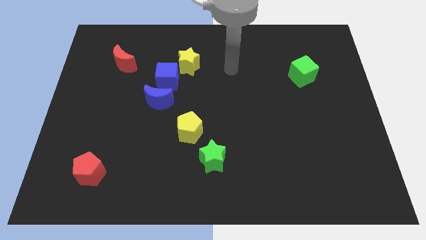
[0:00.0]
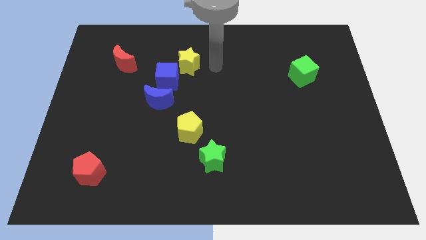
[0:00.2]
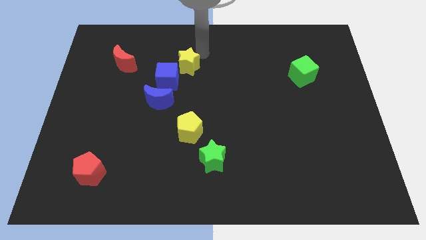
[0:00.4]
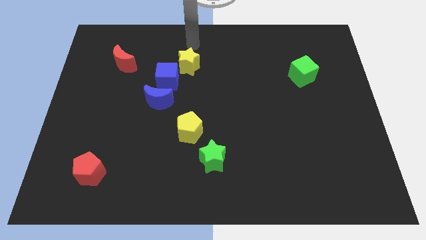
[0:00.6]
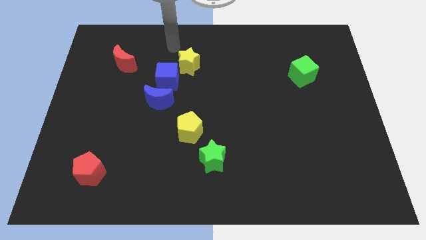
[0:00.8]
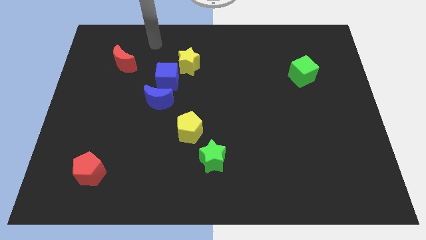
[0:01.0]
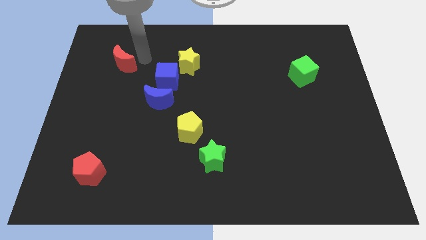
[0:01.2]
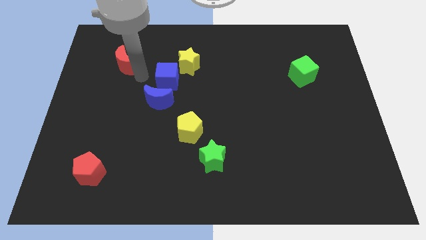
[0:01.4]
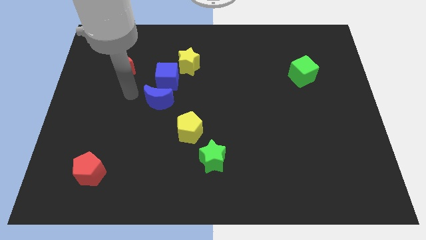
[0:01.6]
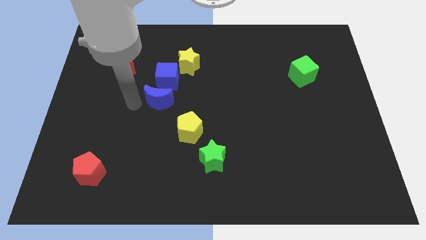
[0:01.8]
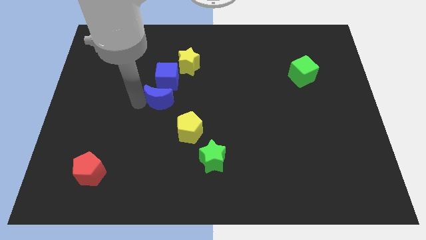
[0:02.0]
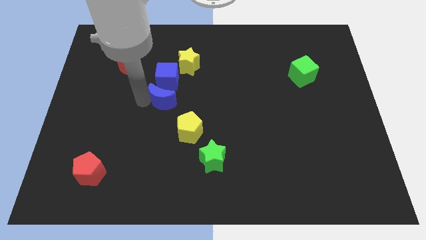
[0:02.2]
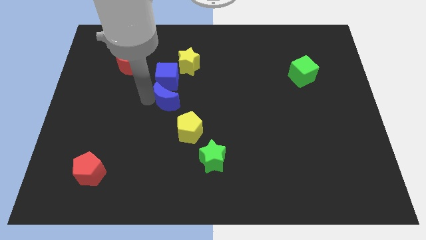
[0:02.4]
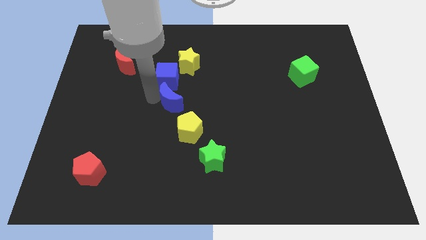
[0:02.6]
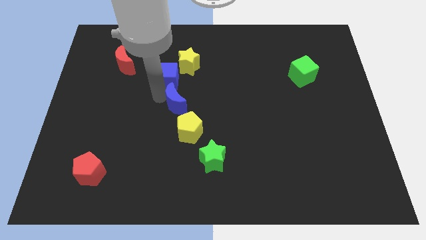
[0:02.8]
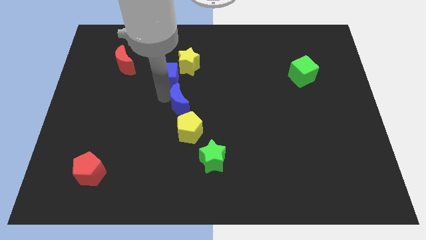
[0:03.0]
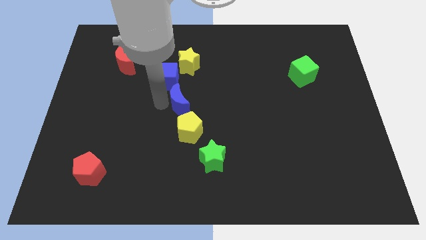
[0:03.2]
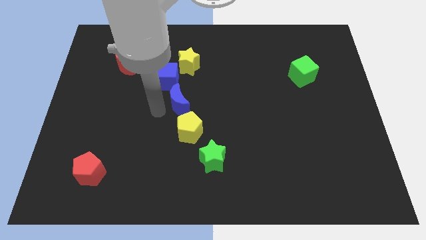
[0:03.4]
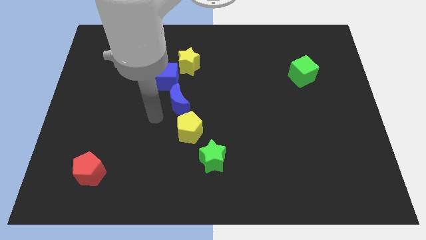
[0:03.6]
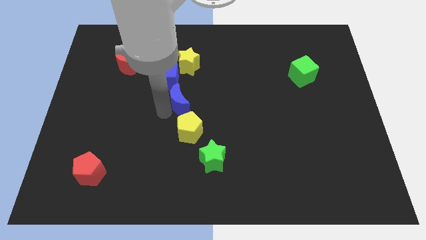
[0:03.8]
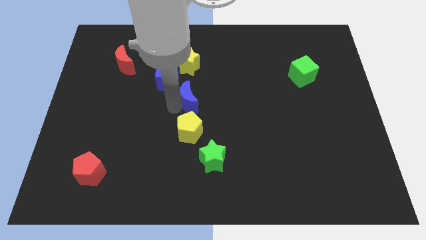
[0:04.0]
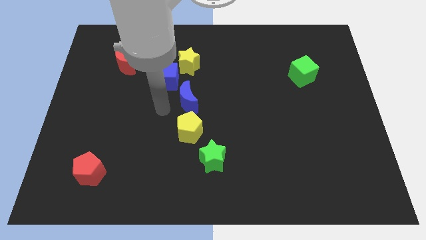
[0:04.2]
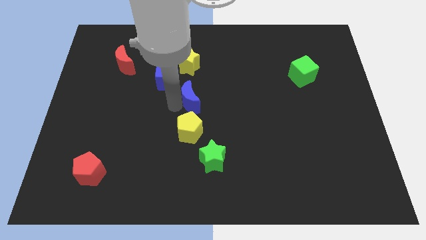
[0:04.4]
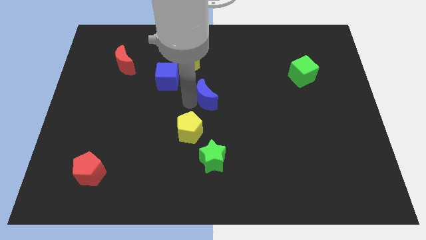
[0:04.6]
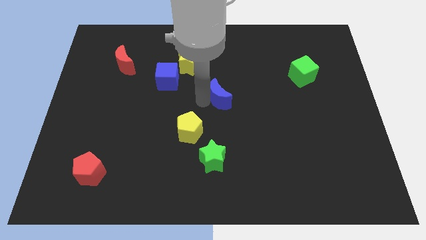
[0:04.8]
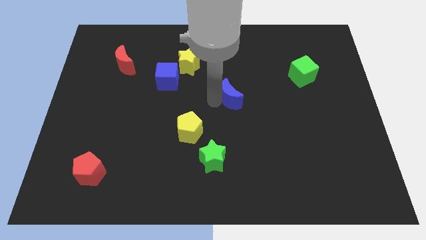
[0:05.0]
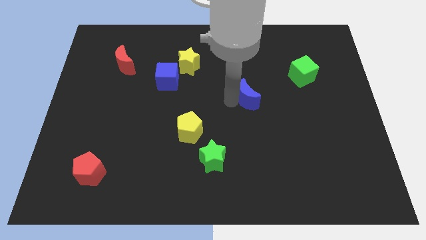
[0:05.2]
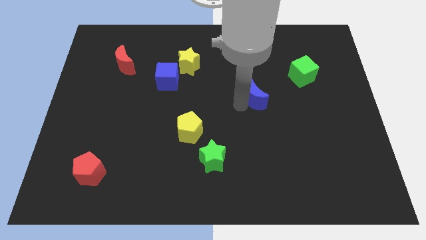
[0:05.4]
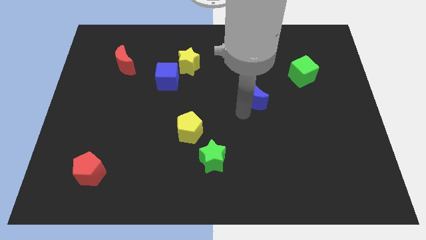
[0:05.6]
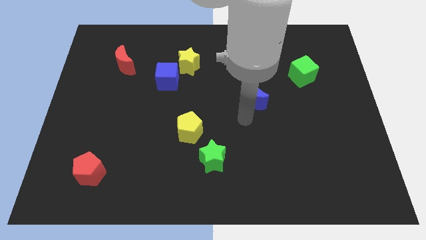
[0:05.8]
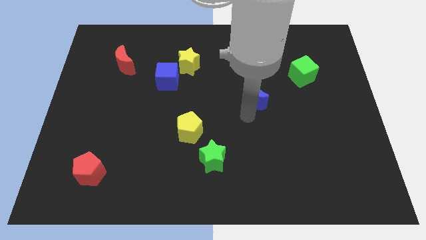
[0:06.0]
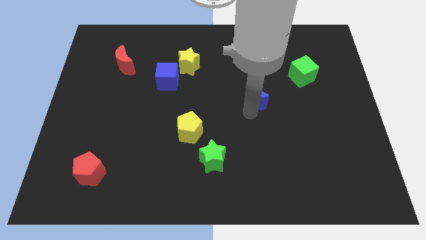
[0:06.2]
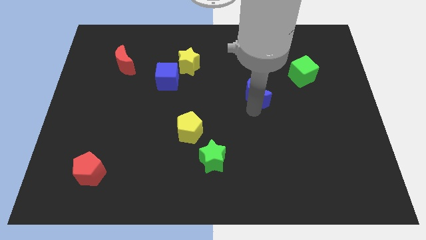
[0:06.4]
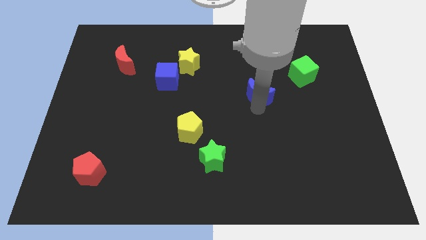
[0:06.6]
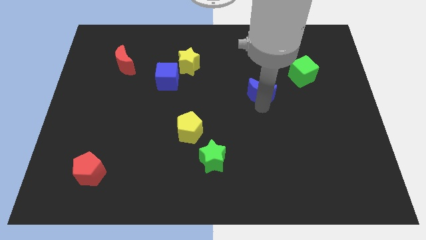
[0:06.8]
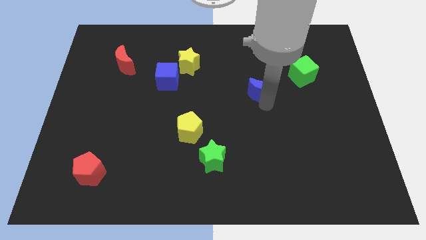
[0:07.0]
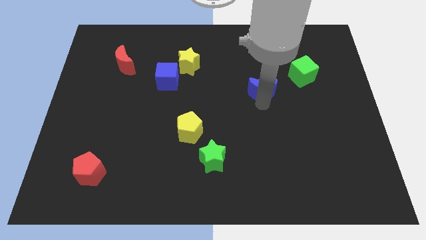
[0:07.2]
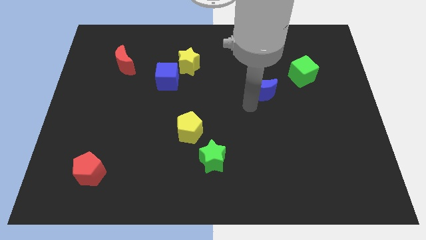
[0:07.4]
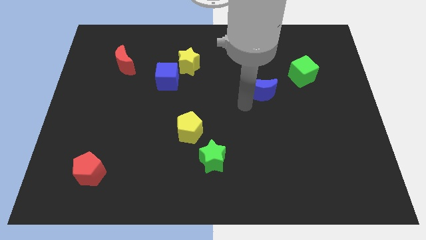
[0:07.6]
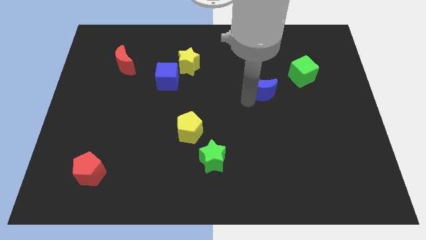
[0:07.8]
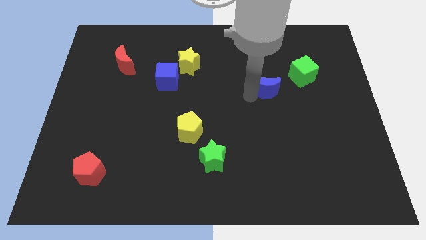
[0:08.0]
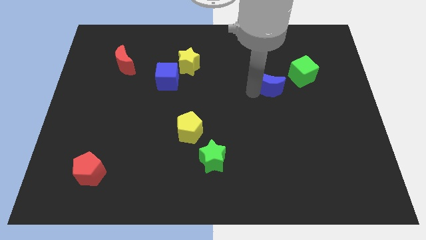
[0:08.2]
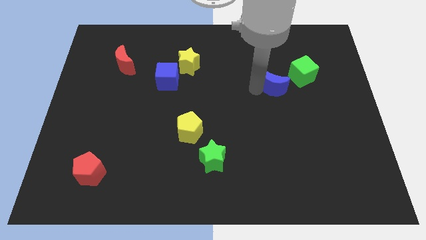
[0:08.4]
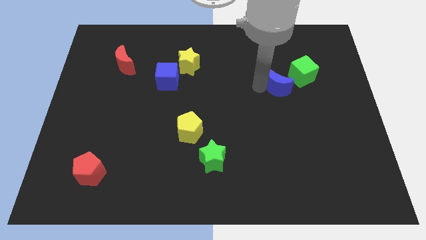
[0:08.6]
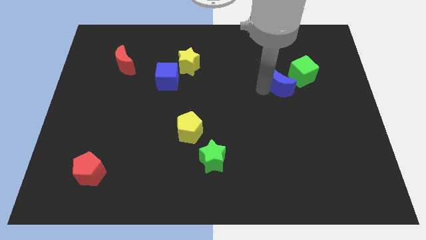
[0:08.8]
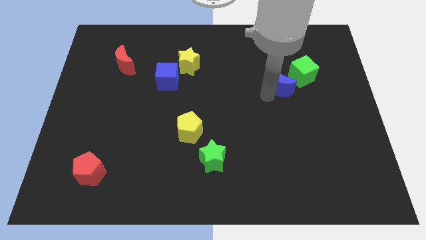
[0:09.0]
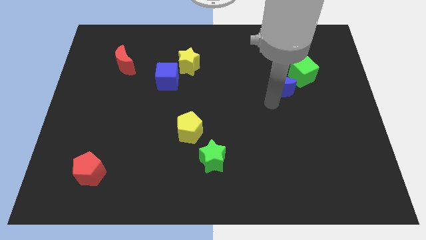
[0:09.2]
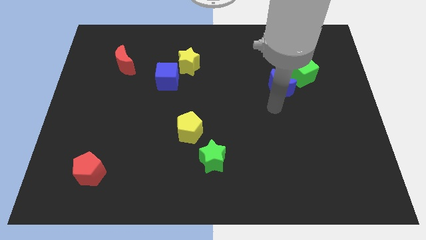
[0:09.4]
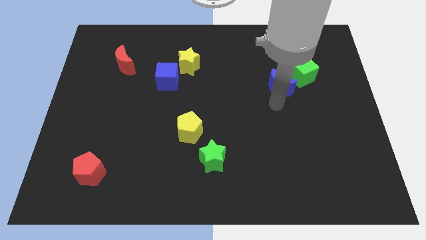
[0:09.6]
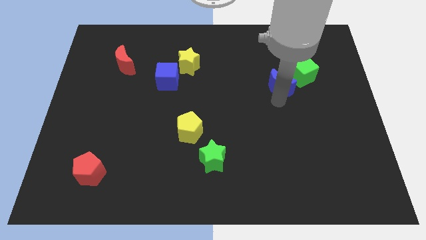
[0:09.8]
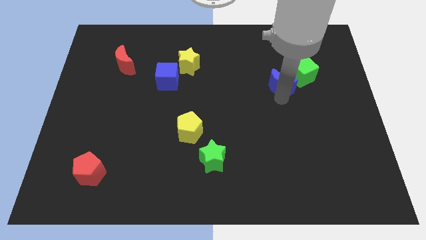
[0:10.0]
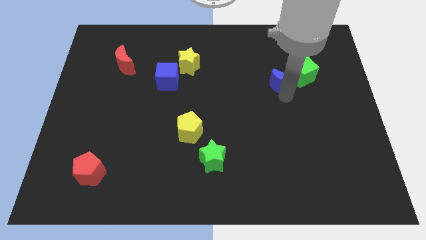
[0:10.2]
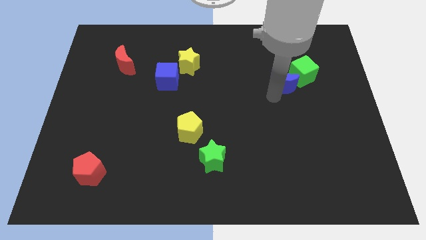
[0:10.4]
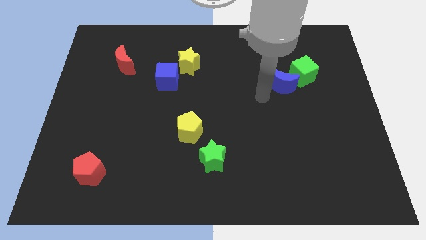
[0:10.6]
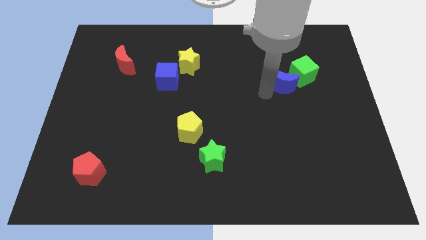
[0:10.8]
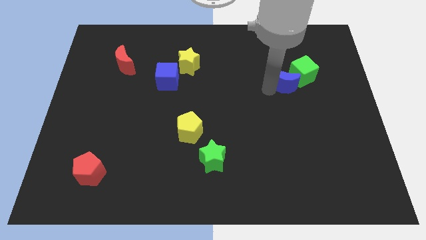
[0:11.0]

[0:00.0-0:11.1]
slide the blue moon close to the green cube

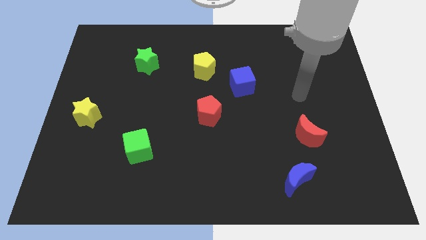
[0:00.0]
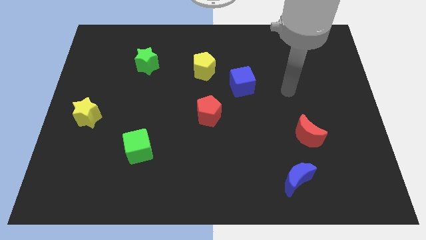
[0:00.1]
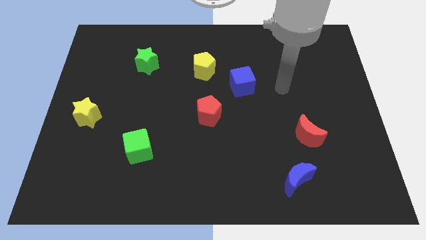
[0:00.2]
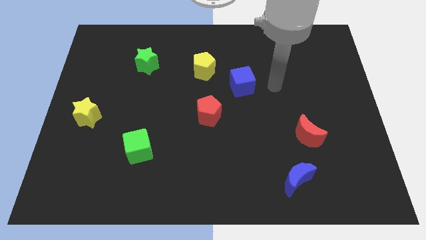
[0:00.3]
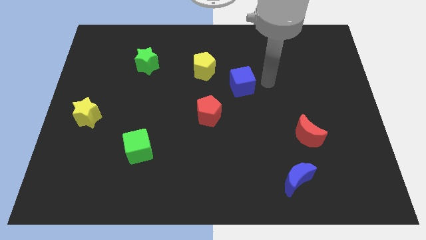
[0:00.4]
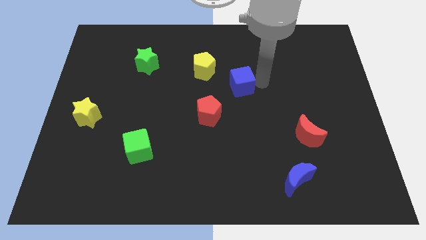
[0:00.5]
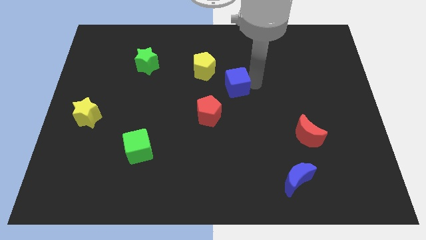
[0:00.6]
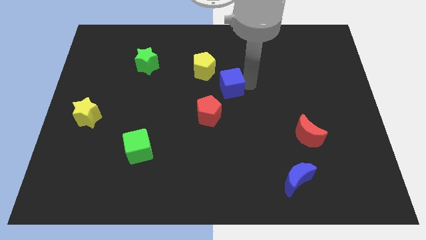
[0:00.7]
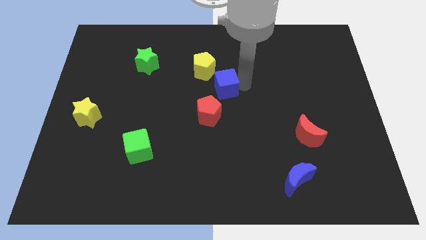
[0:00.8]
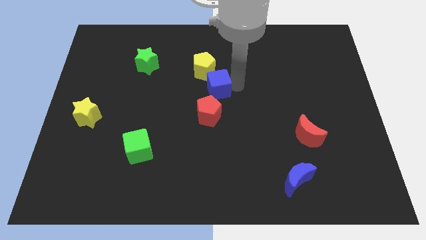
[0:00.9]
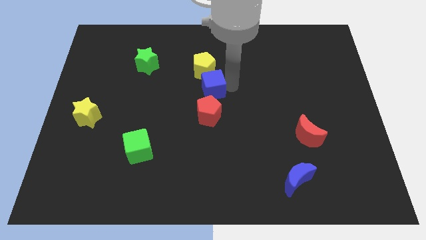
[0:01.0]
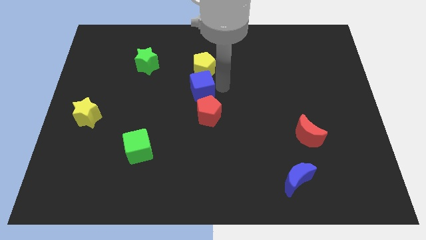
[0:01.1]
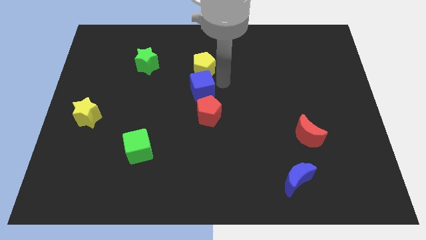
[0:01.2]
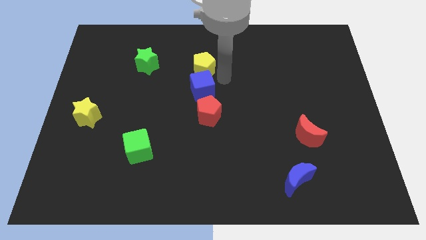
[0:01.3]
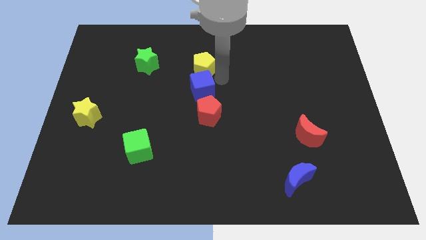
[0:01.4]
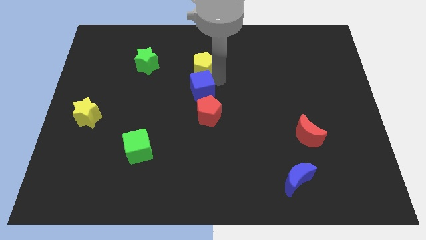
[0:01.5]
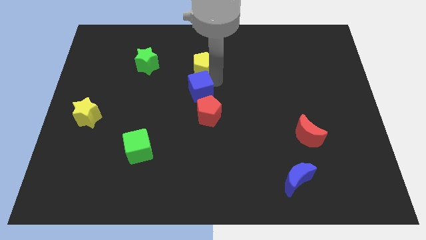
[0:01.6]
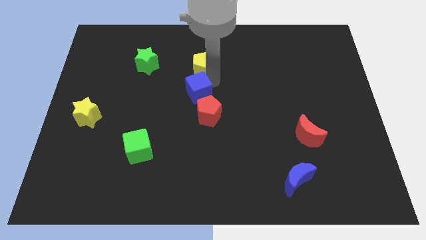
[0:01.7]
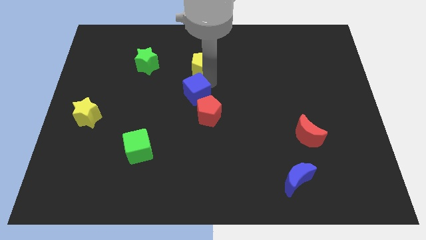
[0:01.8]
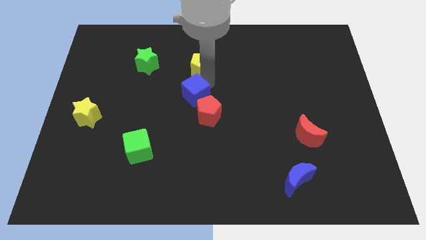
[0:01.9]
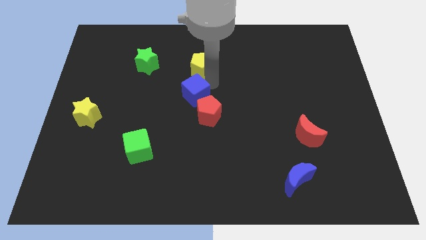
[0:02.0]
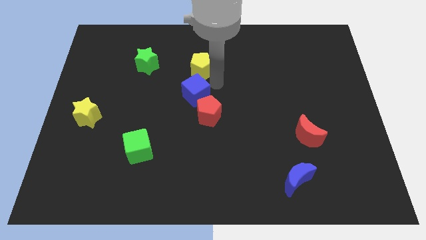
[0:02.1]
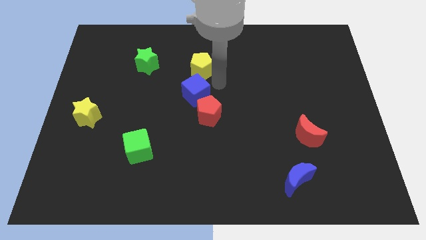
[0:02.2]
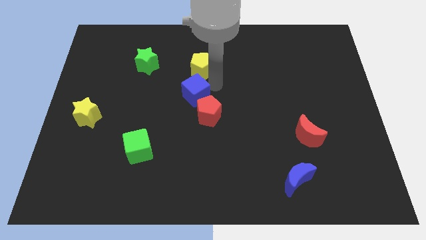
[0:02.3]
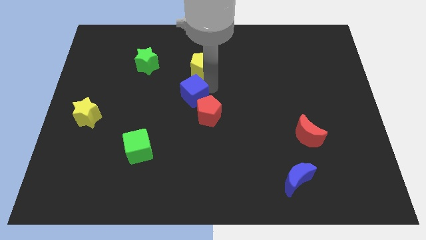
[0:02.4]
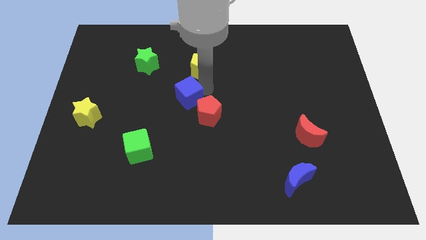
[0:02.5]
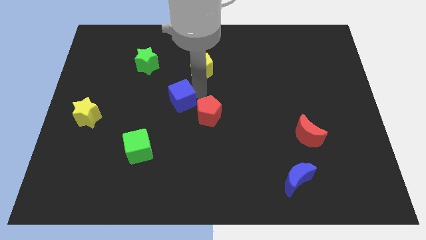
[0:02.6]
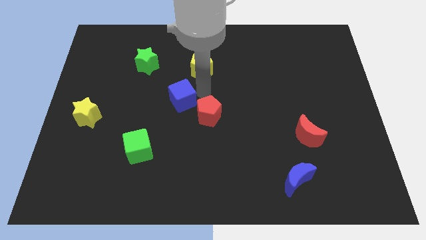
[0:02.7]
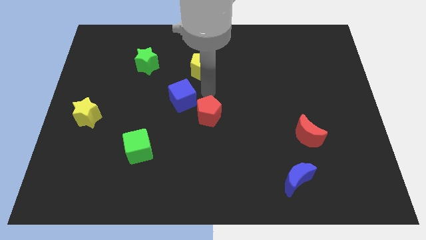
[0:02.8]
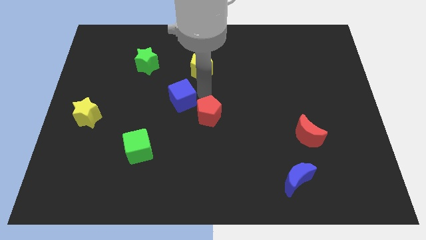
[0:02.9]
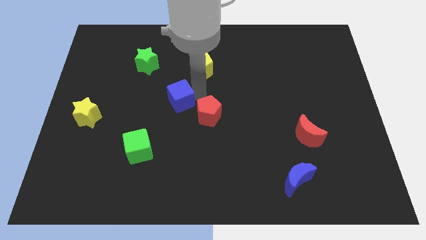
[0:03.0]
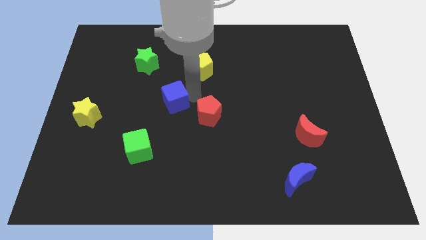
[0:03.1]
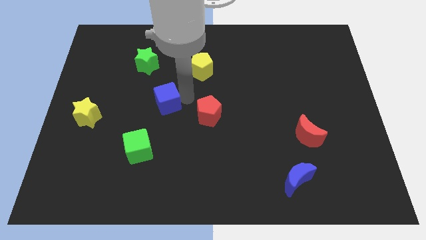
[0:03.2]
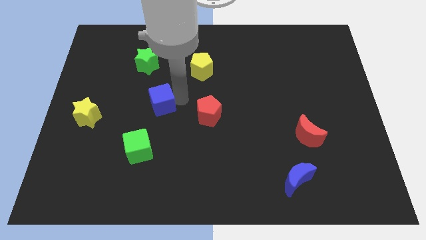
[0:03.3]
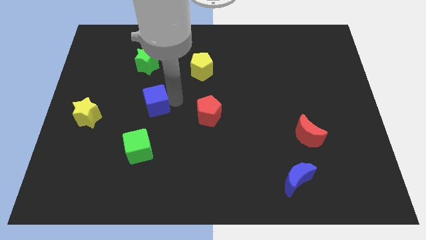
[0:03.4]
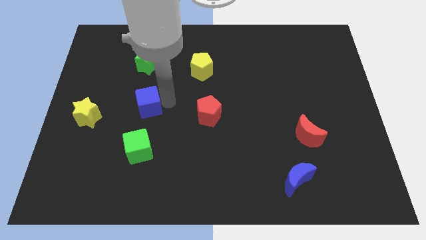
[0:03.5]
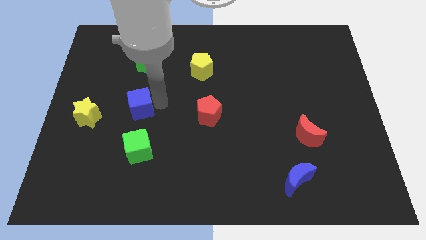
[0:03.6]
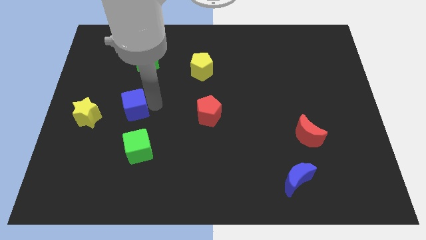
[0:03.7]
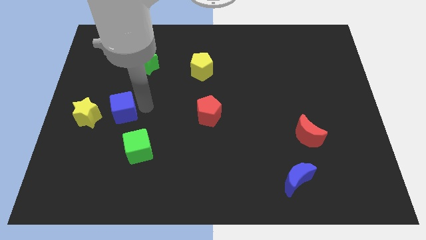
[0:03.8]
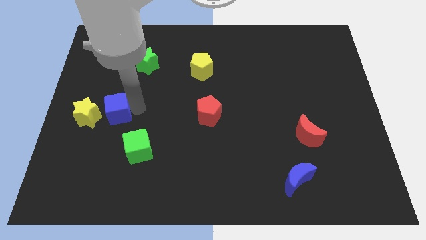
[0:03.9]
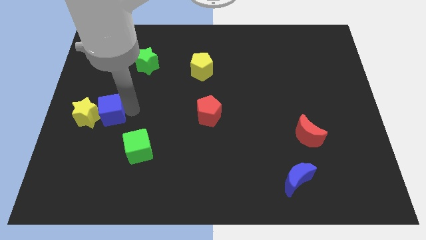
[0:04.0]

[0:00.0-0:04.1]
push the blue cube close to the yellow star
